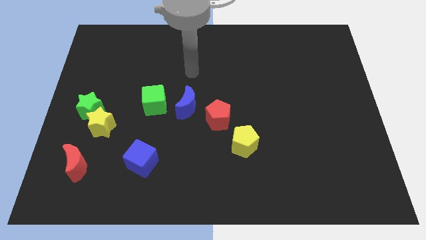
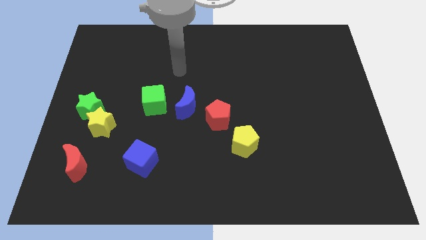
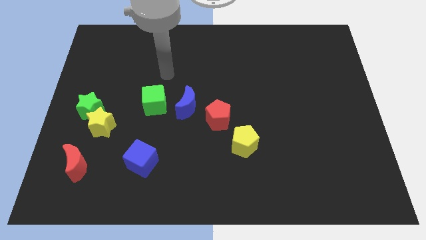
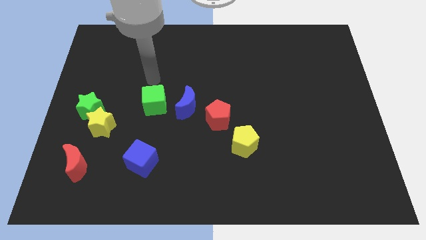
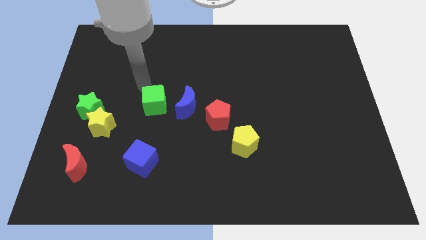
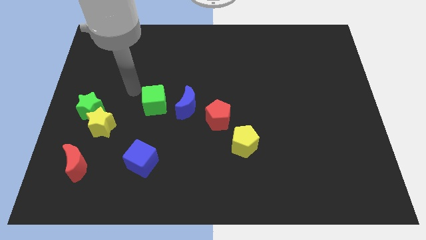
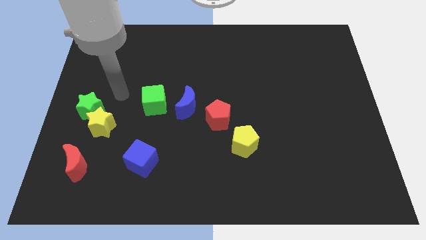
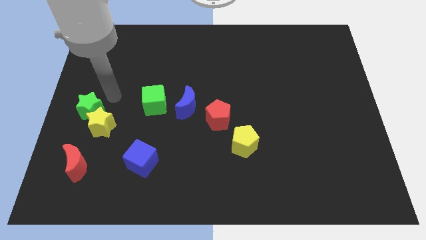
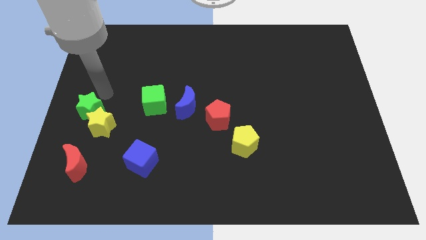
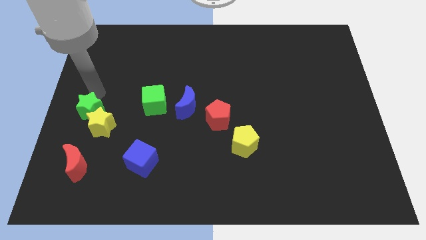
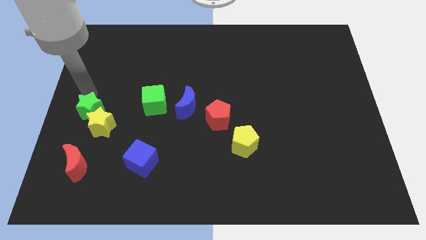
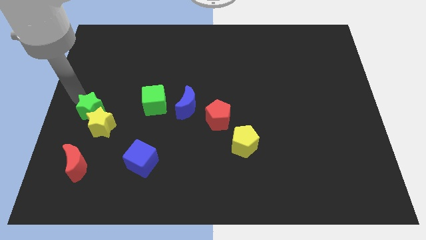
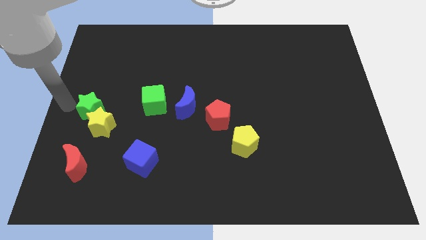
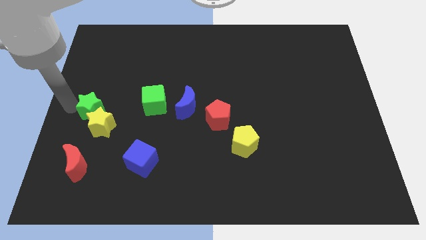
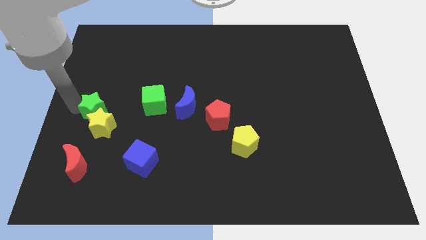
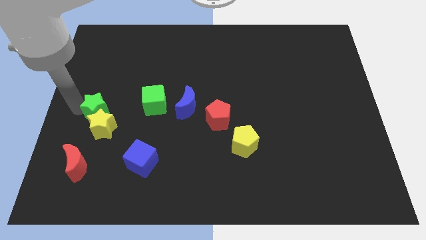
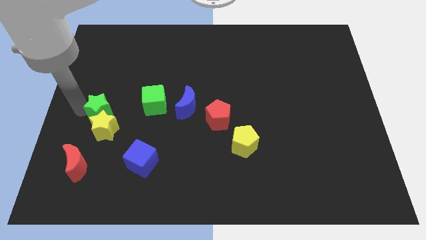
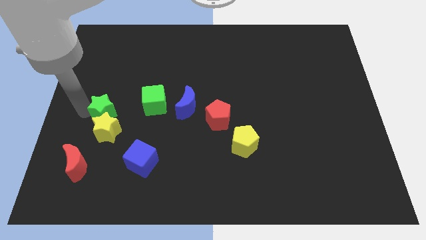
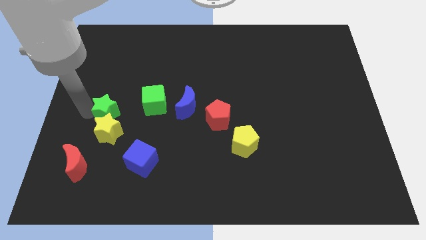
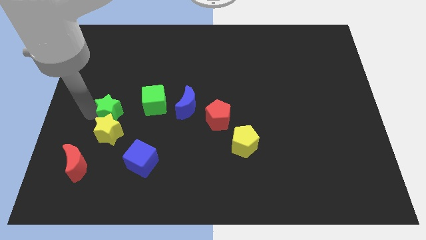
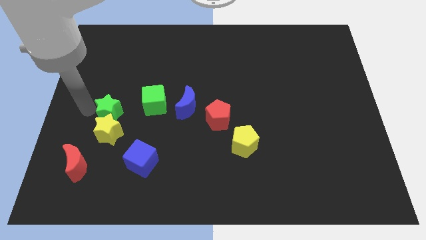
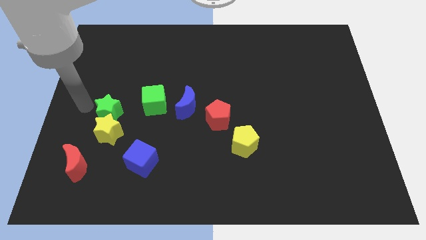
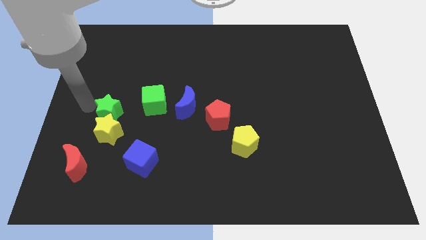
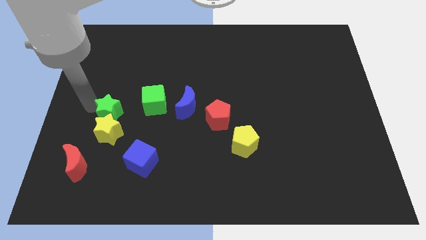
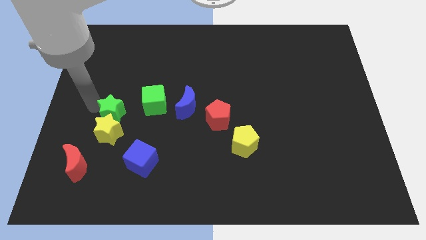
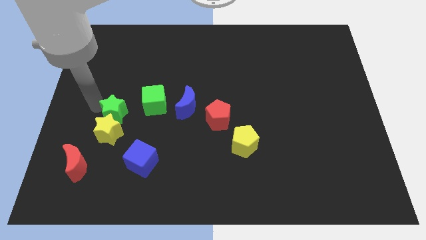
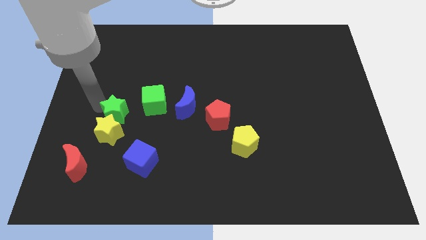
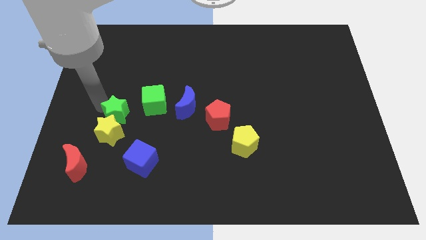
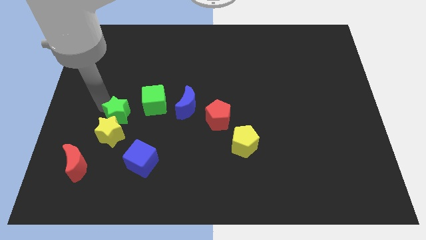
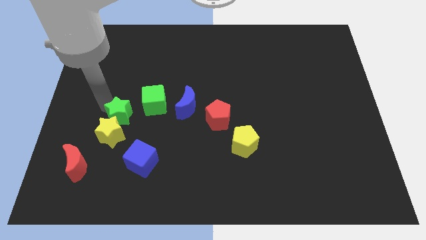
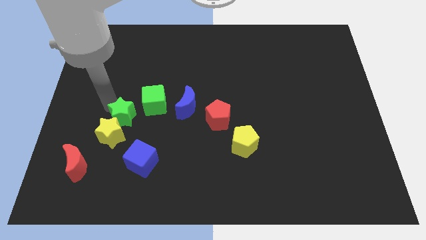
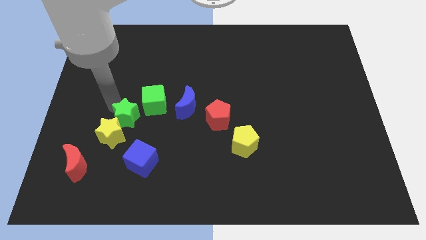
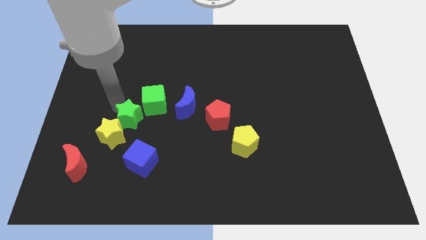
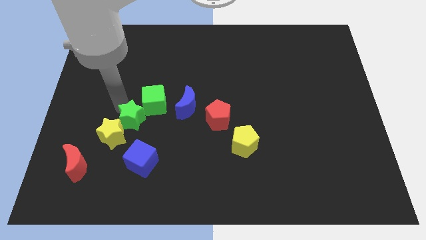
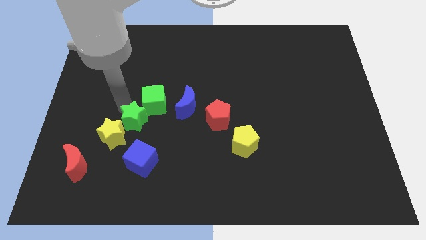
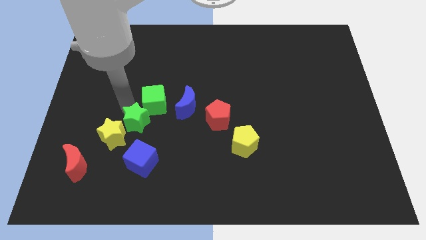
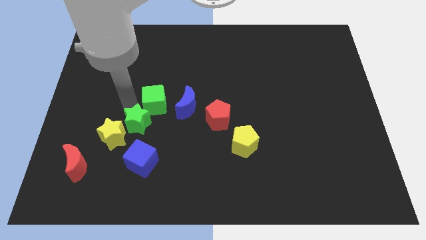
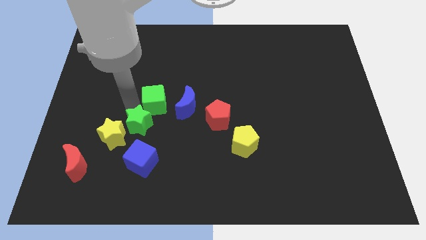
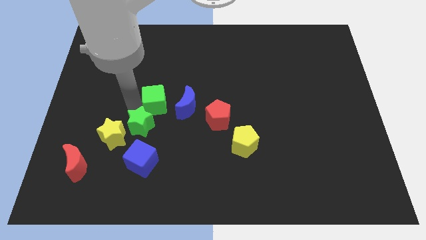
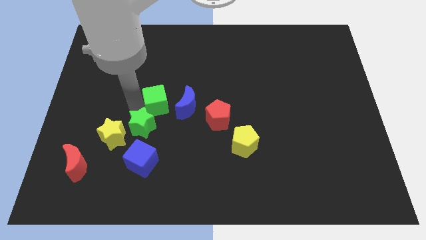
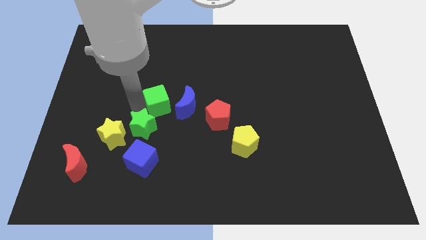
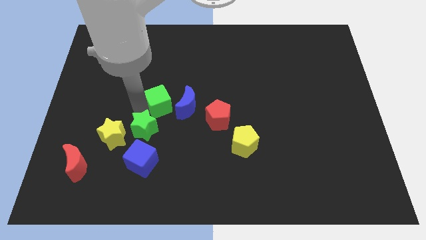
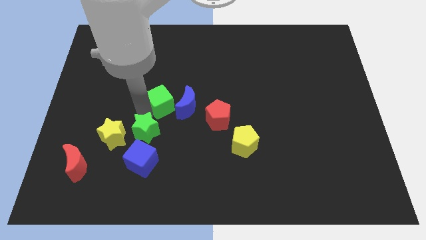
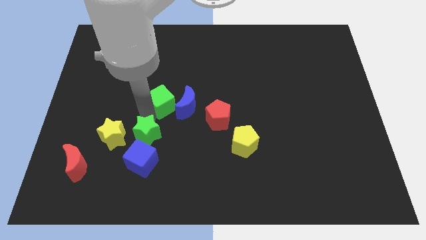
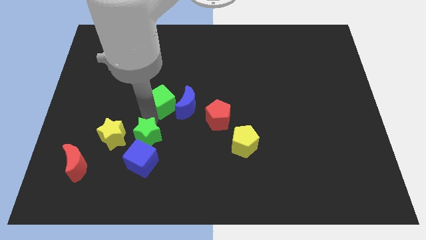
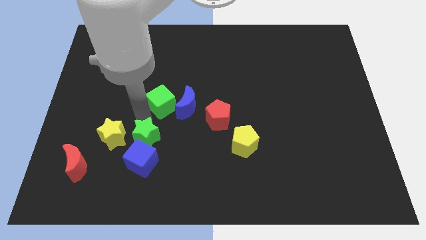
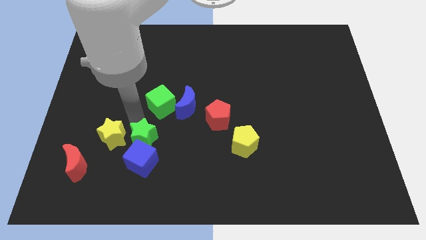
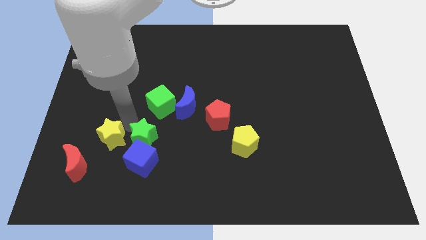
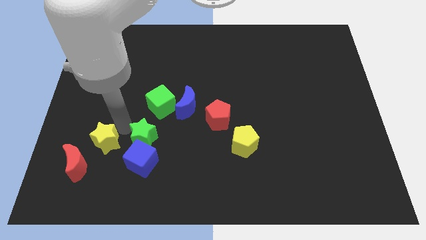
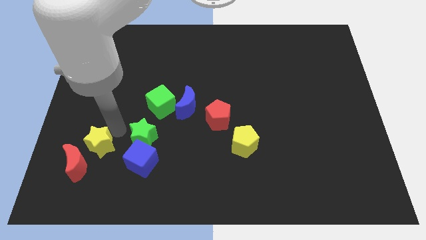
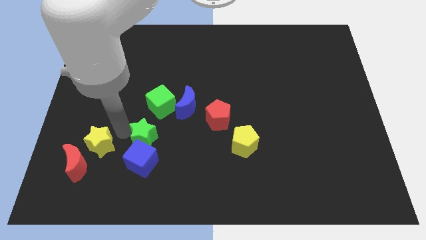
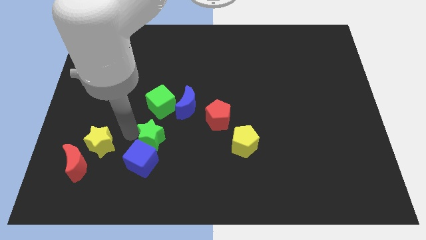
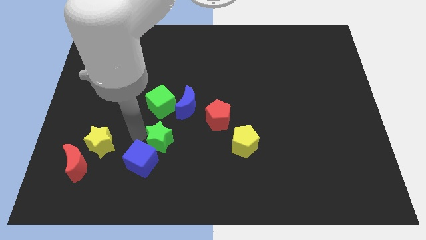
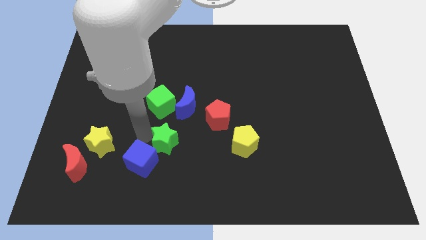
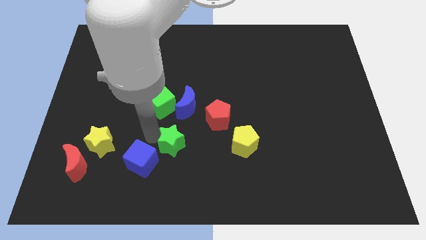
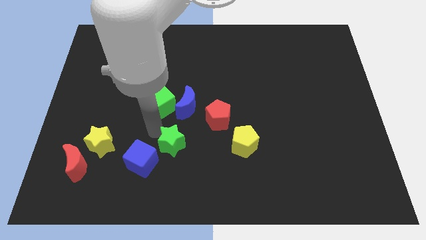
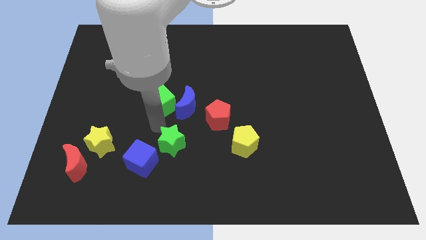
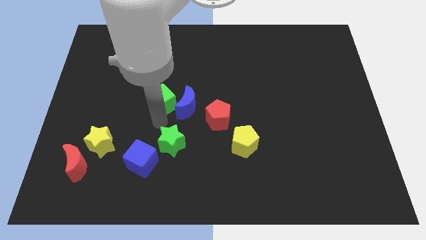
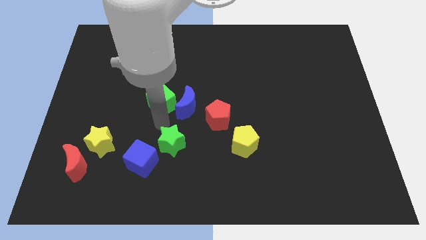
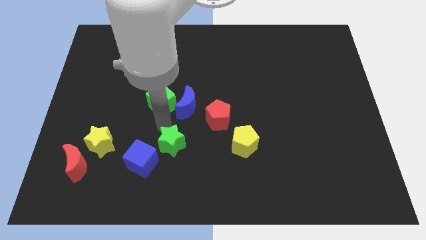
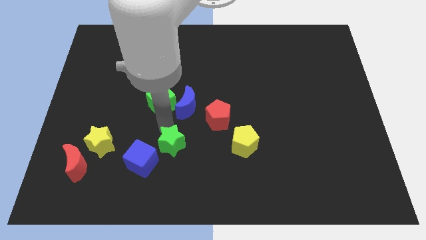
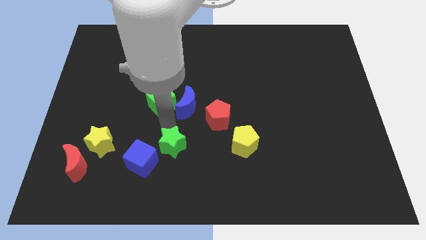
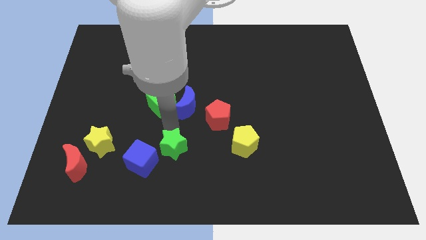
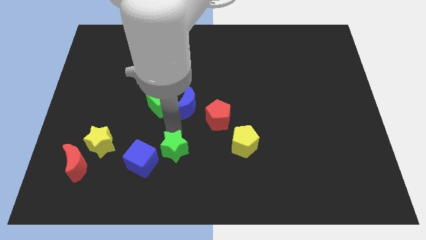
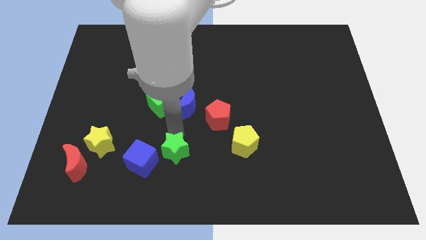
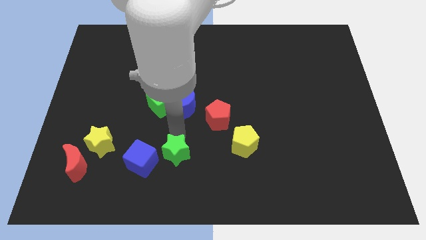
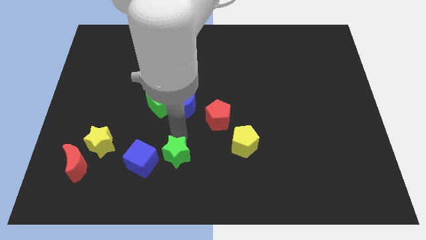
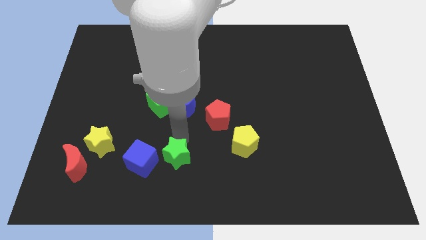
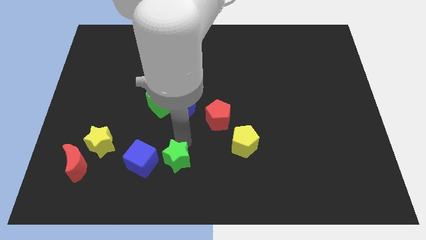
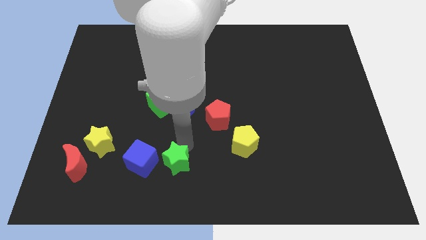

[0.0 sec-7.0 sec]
slide the green star to the bottom

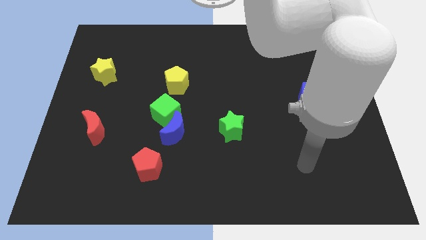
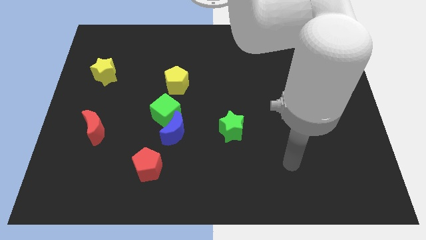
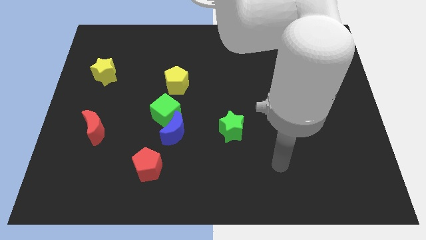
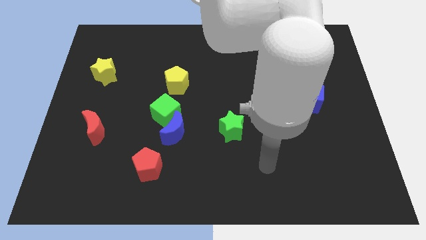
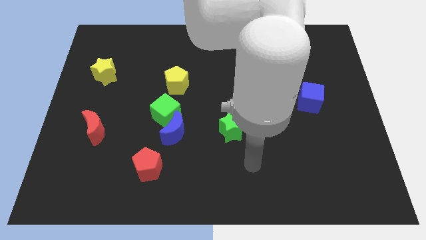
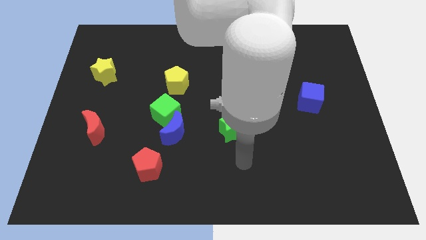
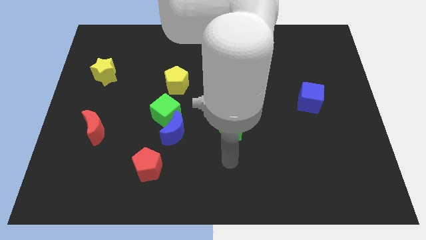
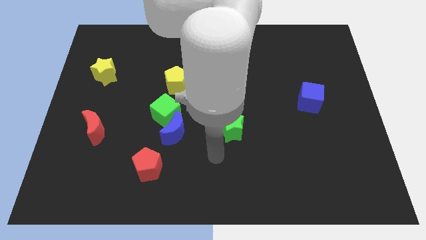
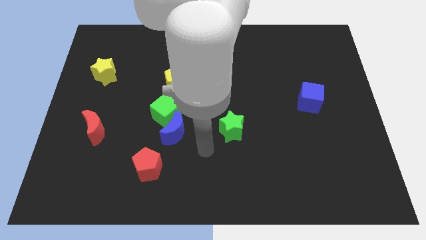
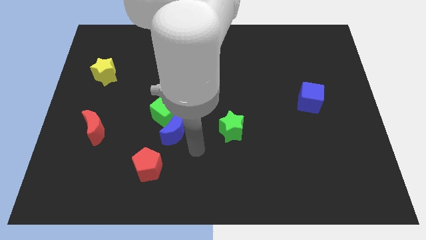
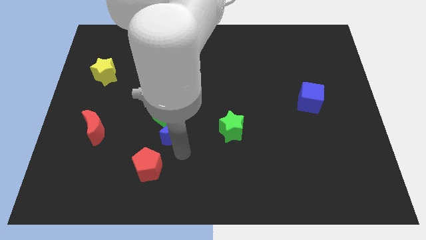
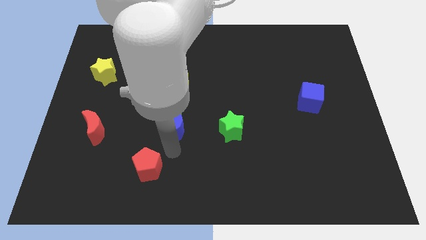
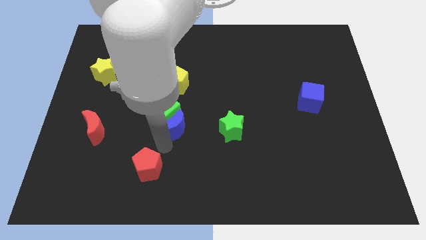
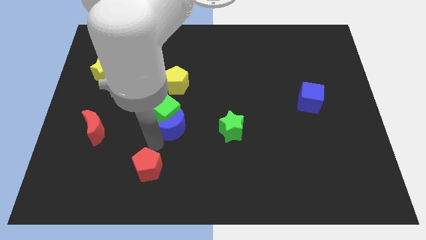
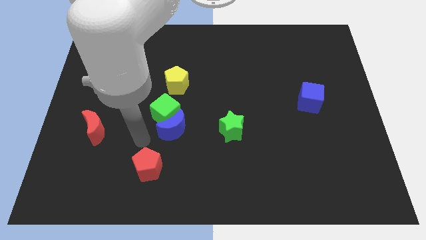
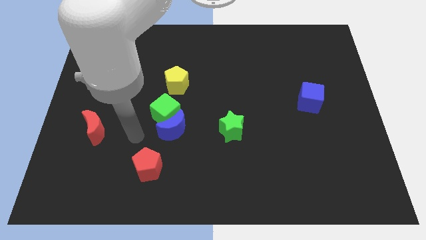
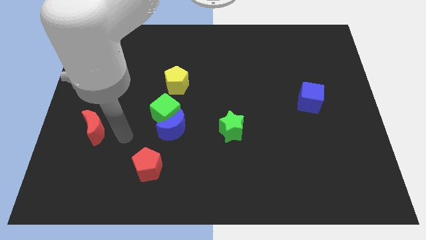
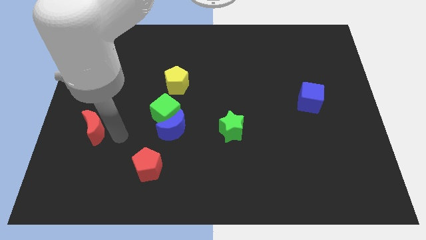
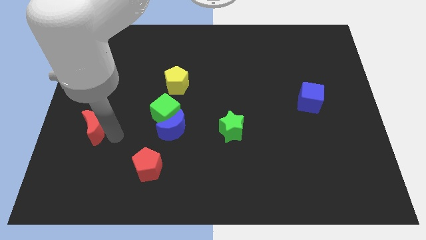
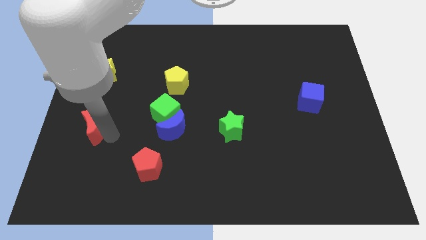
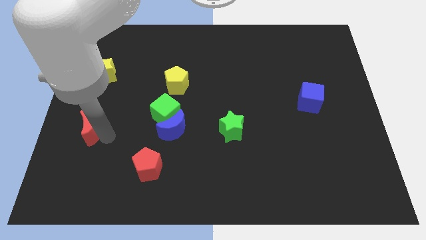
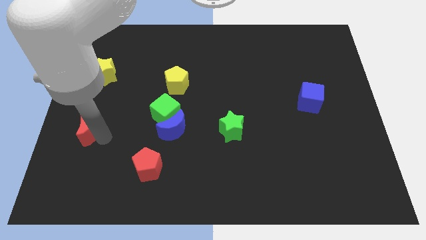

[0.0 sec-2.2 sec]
push the red moon to the left side
